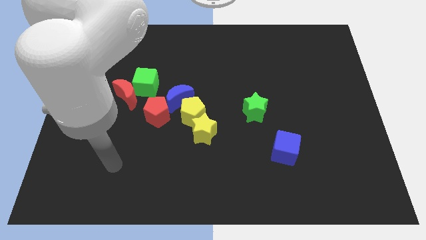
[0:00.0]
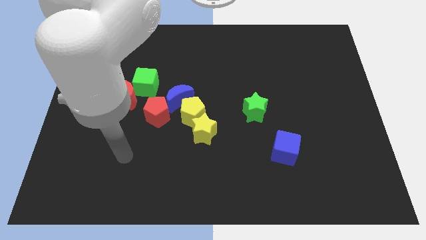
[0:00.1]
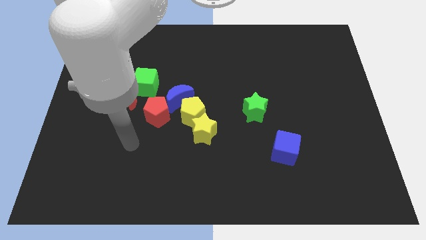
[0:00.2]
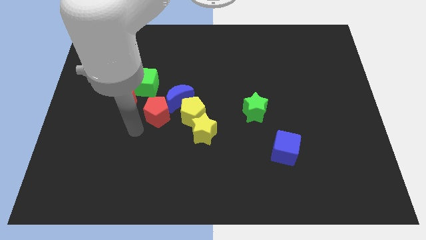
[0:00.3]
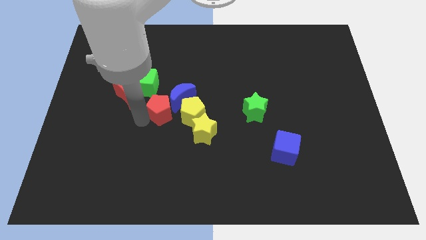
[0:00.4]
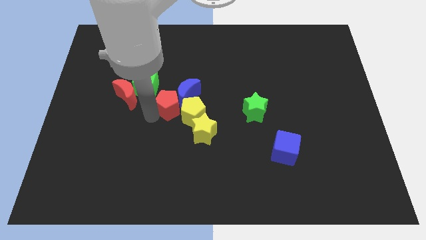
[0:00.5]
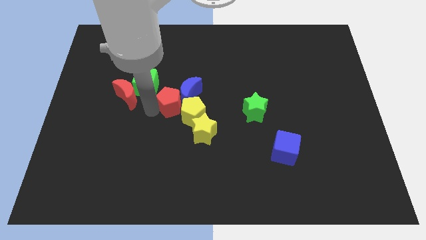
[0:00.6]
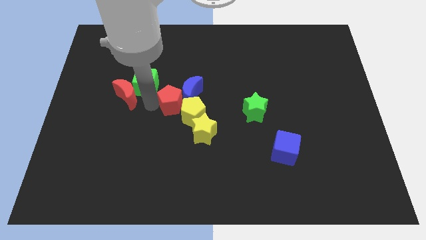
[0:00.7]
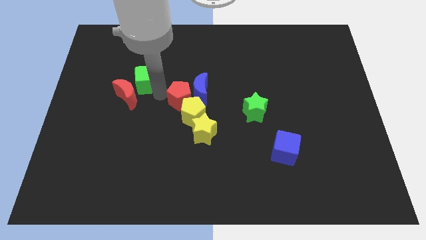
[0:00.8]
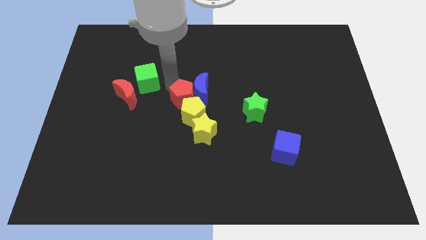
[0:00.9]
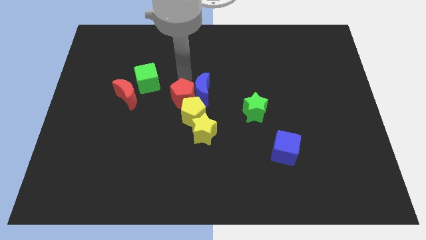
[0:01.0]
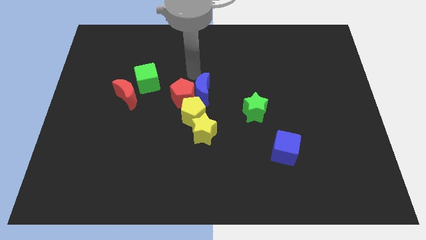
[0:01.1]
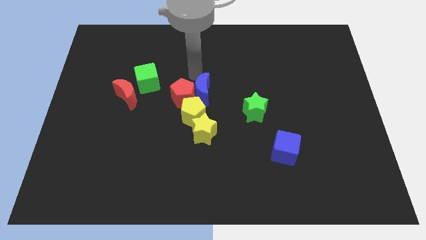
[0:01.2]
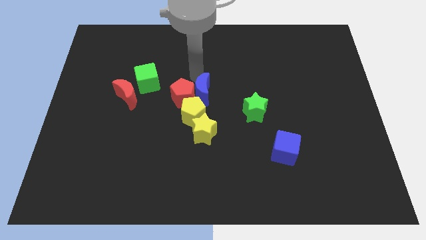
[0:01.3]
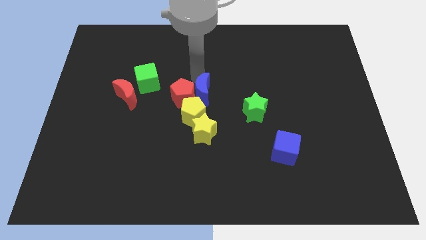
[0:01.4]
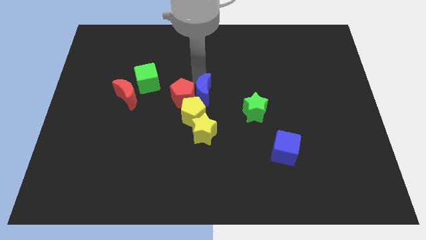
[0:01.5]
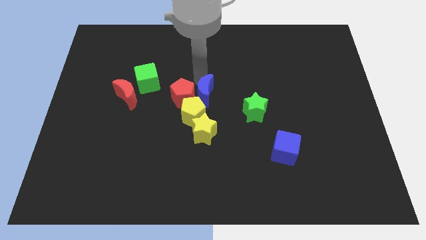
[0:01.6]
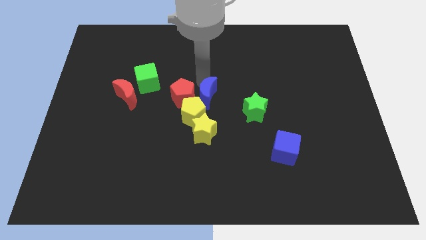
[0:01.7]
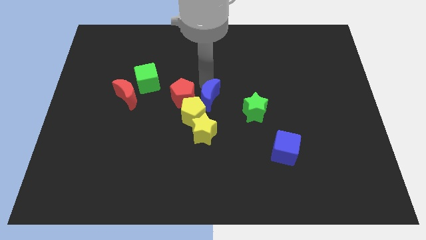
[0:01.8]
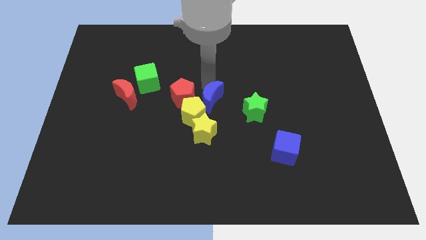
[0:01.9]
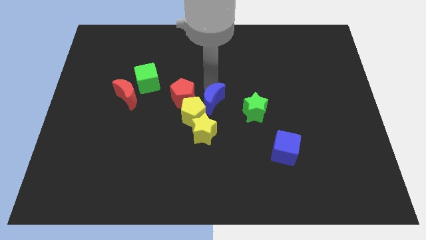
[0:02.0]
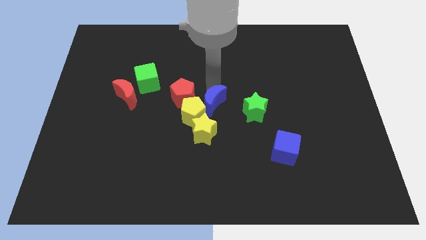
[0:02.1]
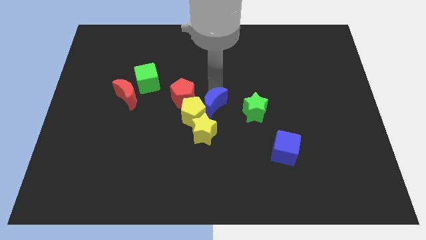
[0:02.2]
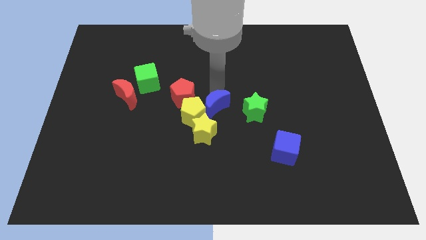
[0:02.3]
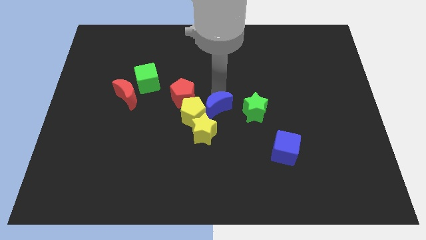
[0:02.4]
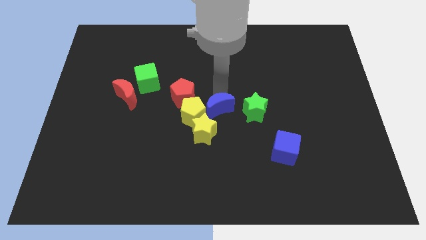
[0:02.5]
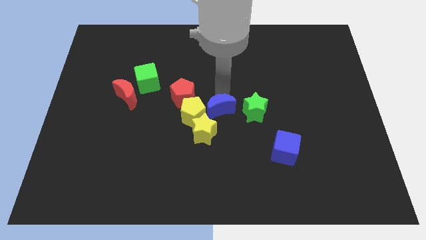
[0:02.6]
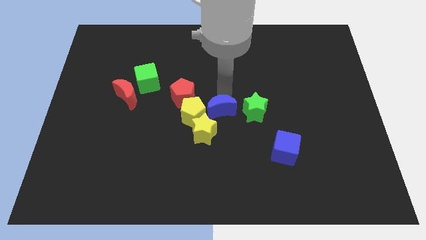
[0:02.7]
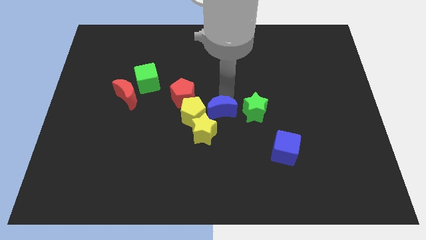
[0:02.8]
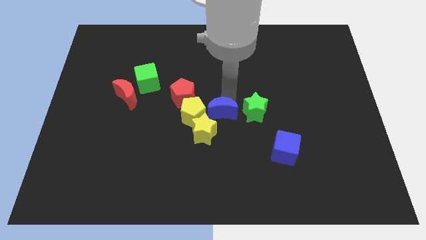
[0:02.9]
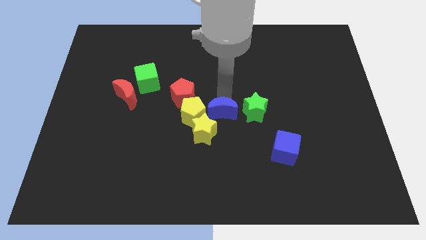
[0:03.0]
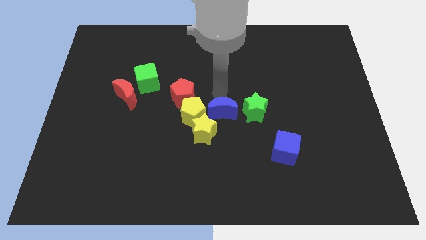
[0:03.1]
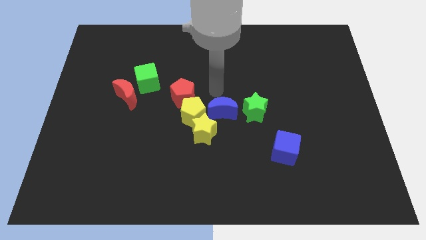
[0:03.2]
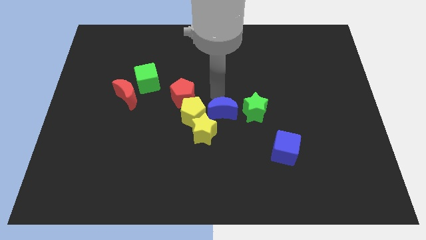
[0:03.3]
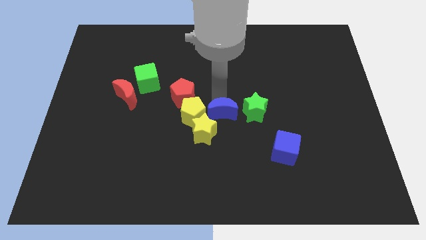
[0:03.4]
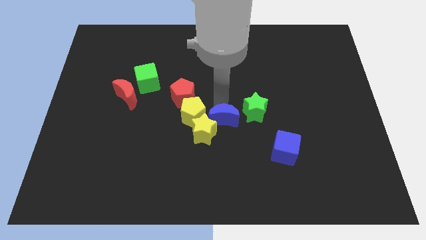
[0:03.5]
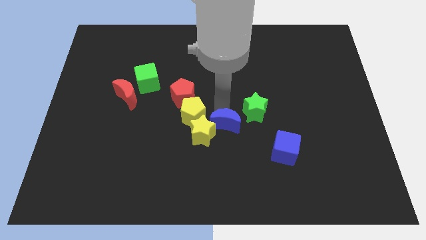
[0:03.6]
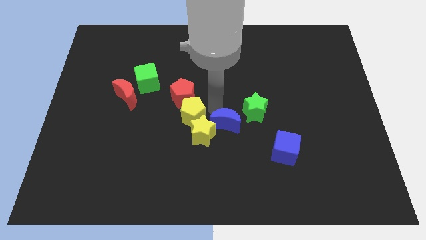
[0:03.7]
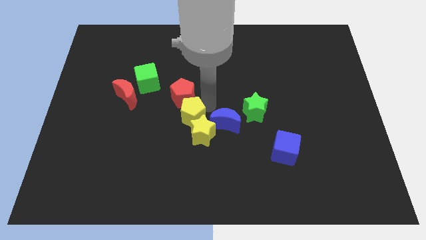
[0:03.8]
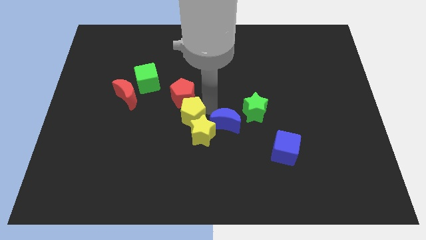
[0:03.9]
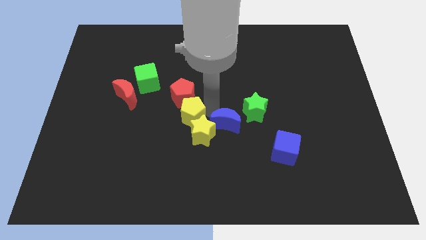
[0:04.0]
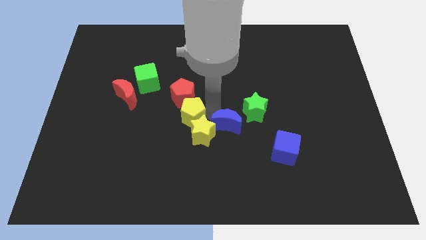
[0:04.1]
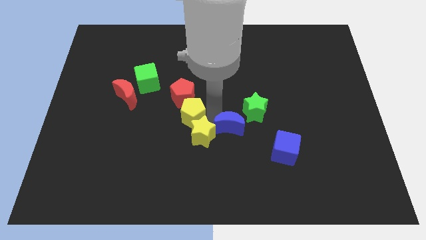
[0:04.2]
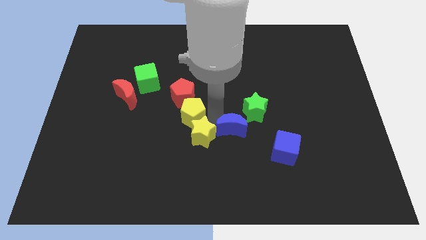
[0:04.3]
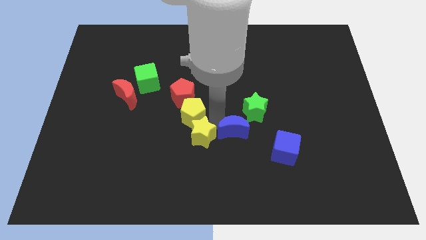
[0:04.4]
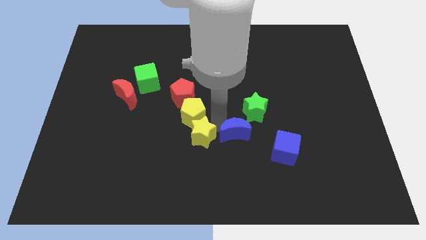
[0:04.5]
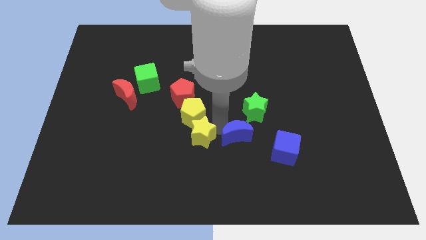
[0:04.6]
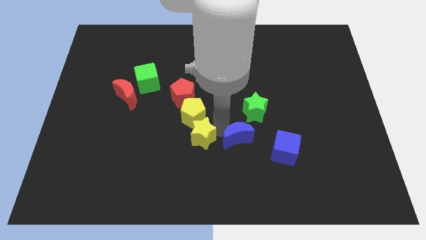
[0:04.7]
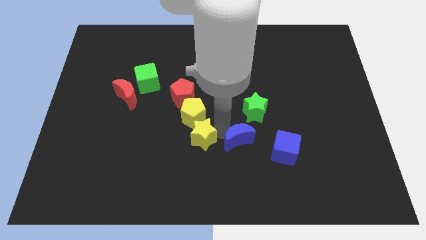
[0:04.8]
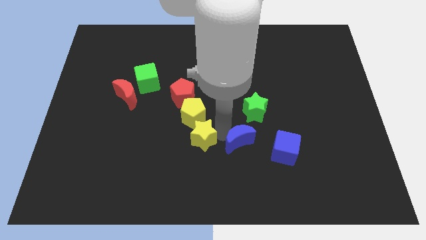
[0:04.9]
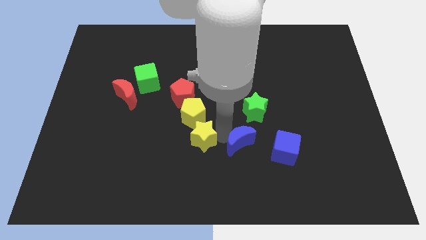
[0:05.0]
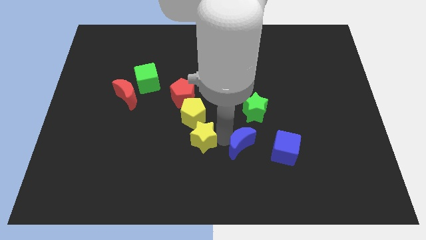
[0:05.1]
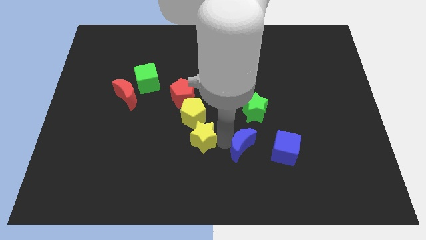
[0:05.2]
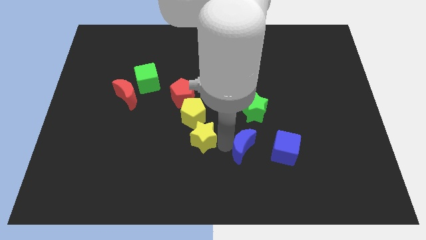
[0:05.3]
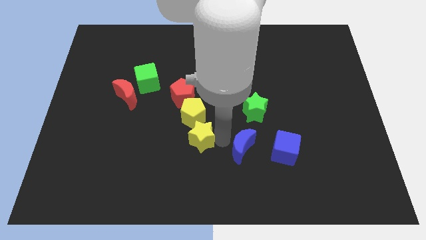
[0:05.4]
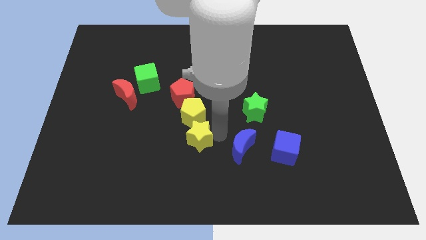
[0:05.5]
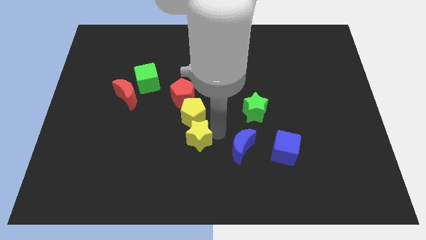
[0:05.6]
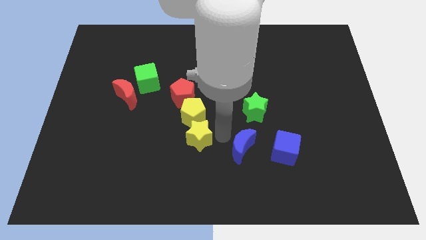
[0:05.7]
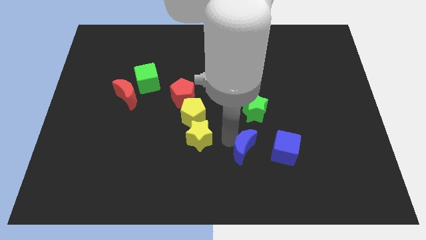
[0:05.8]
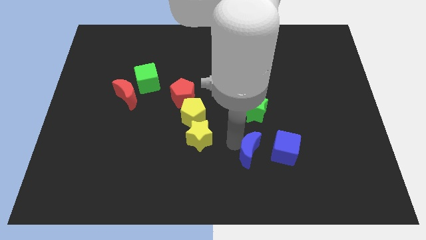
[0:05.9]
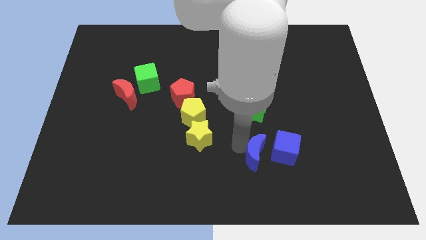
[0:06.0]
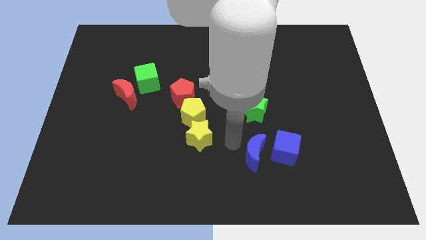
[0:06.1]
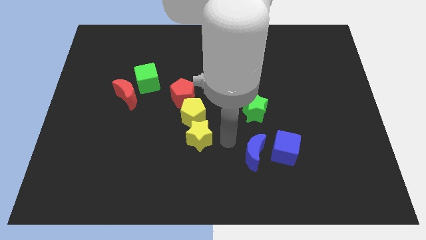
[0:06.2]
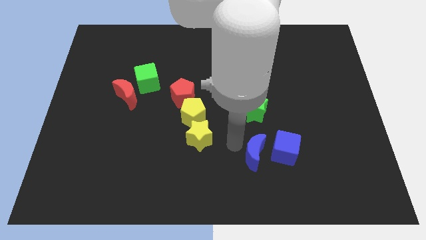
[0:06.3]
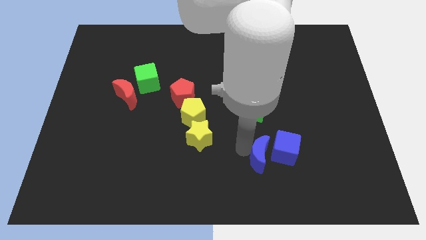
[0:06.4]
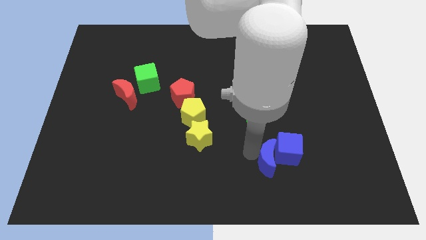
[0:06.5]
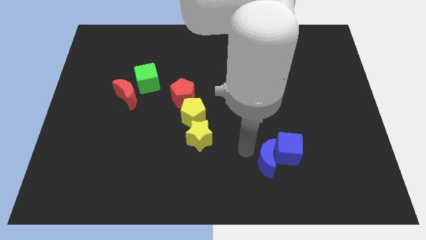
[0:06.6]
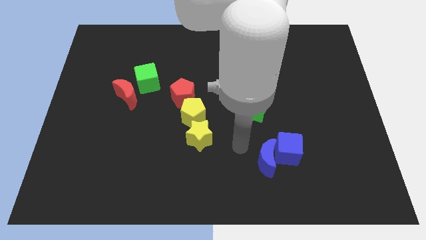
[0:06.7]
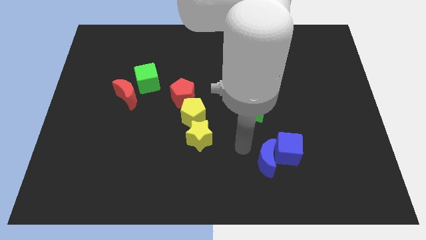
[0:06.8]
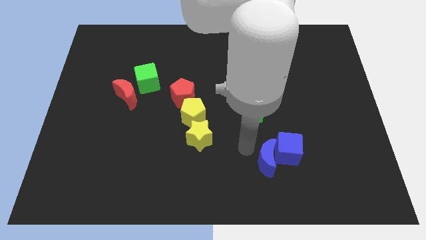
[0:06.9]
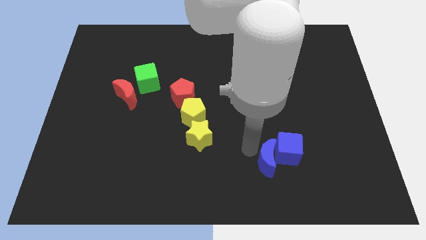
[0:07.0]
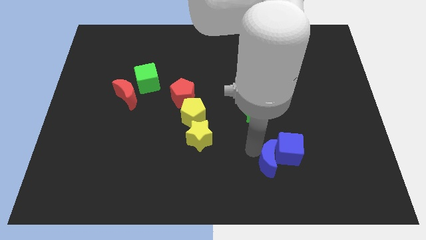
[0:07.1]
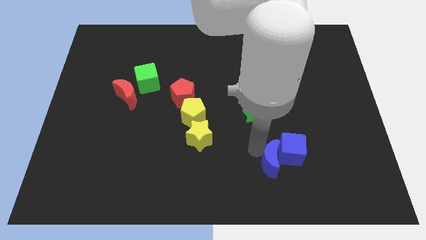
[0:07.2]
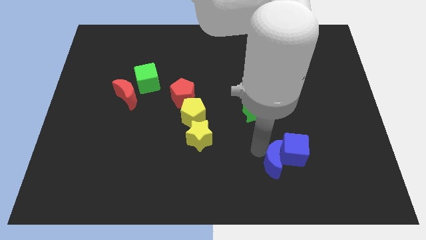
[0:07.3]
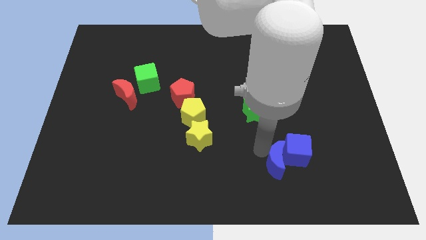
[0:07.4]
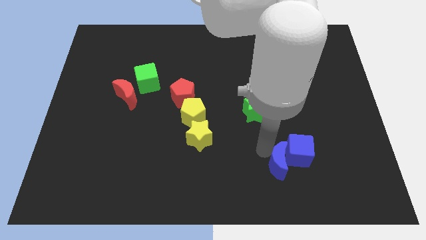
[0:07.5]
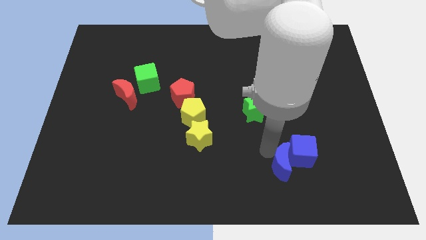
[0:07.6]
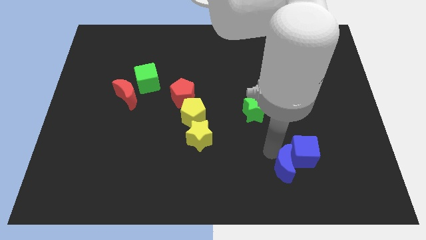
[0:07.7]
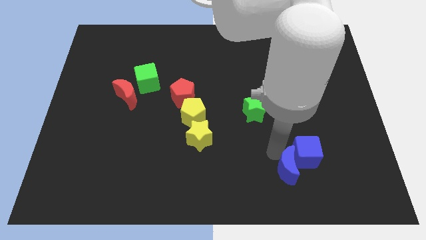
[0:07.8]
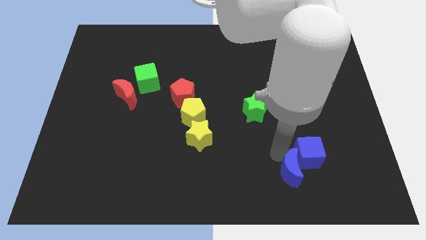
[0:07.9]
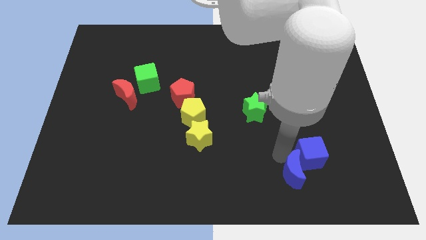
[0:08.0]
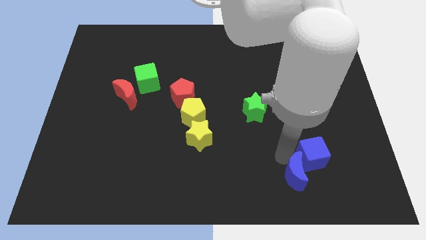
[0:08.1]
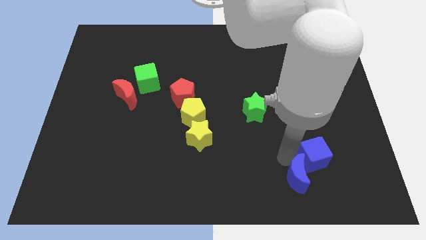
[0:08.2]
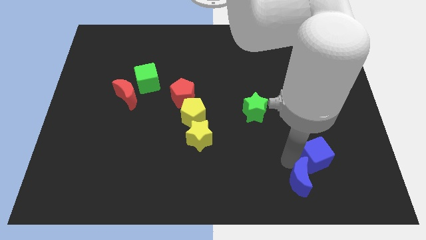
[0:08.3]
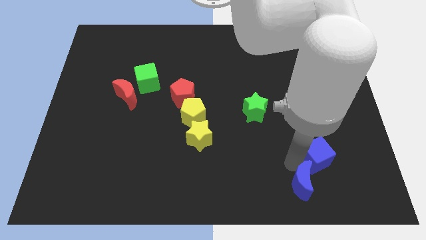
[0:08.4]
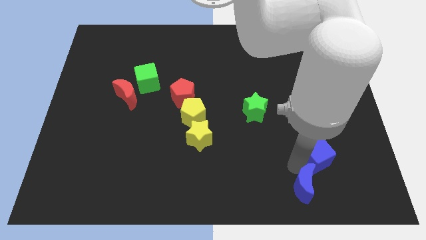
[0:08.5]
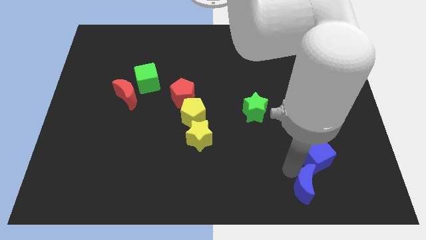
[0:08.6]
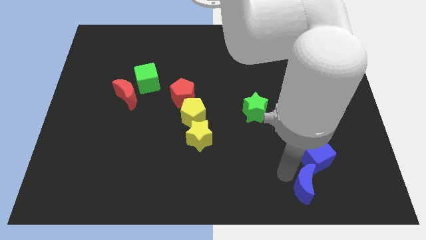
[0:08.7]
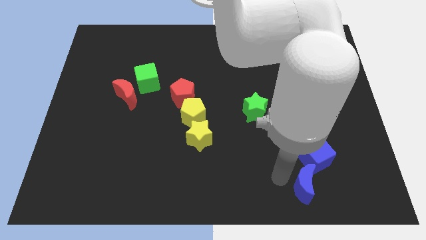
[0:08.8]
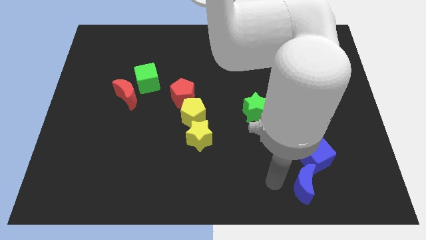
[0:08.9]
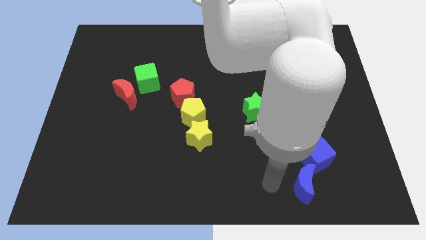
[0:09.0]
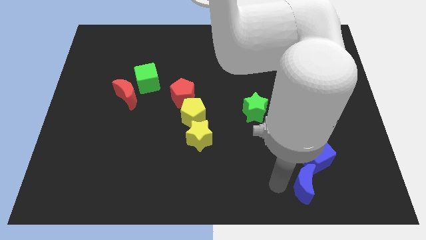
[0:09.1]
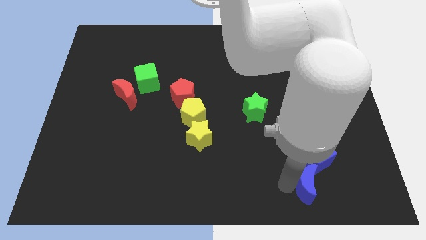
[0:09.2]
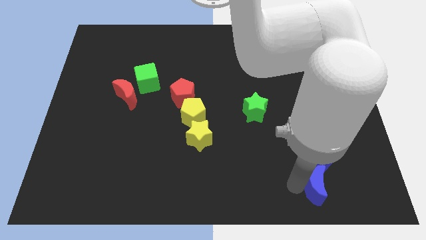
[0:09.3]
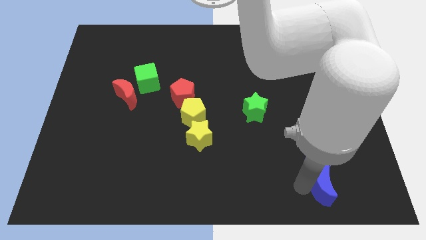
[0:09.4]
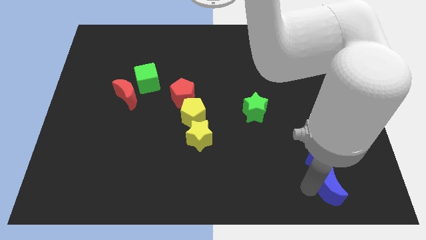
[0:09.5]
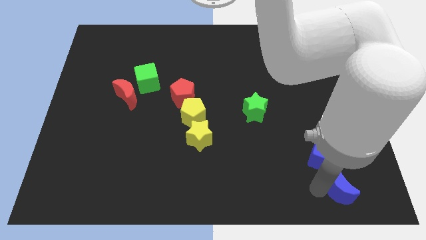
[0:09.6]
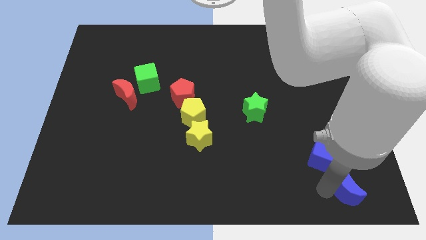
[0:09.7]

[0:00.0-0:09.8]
push the blue moon to the bottom right corner
